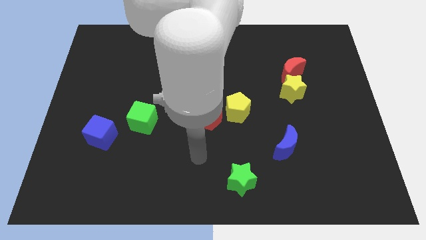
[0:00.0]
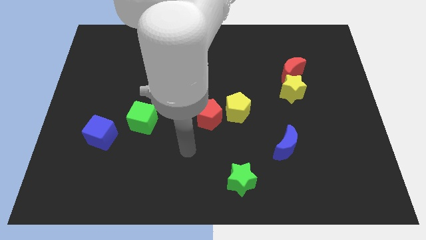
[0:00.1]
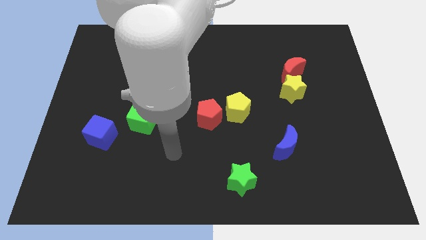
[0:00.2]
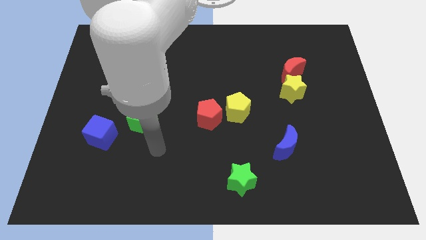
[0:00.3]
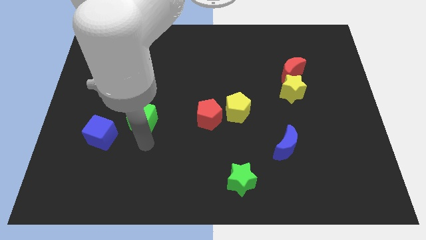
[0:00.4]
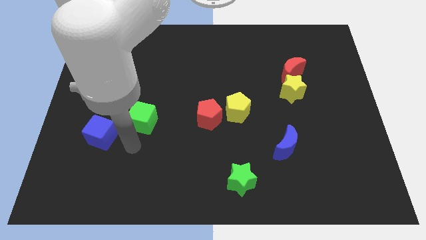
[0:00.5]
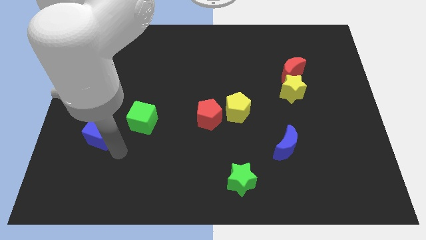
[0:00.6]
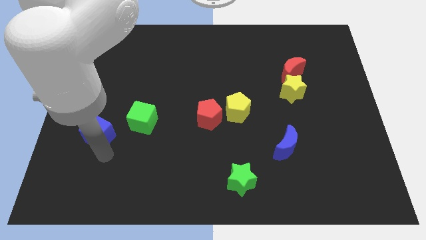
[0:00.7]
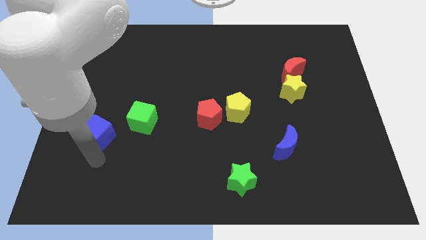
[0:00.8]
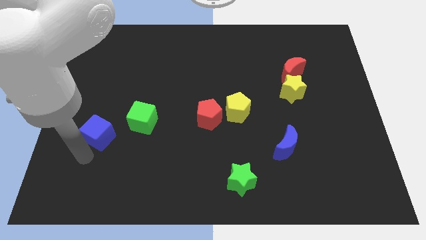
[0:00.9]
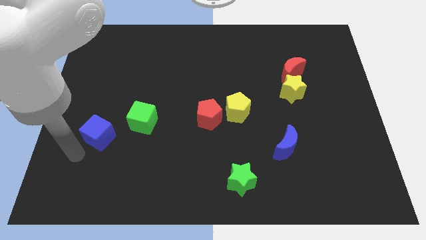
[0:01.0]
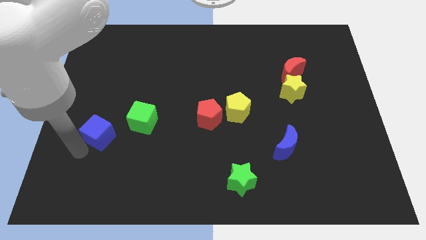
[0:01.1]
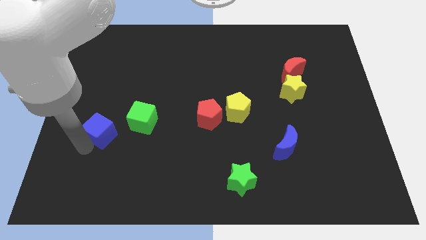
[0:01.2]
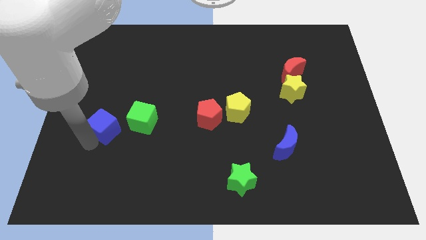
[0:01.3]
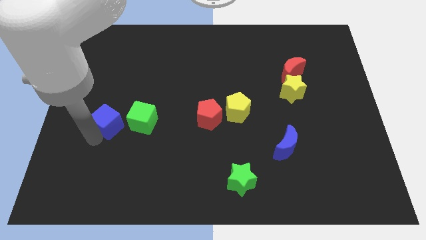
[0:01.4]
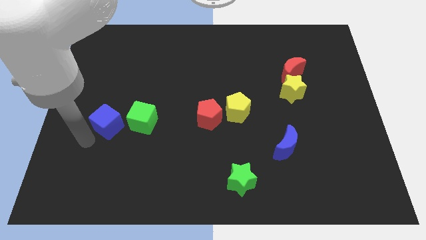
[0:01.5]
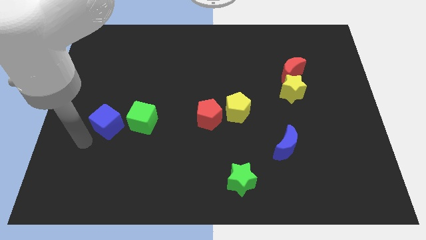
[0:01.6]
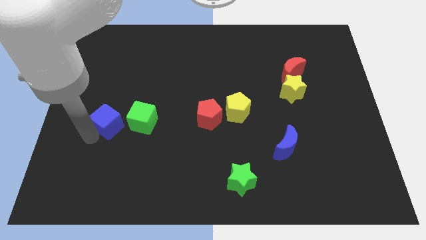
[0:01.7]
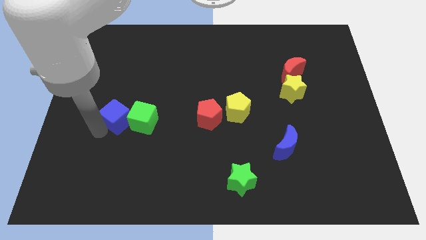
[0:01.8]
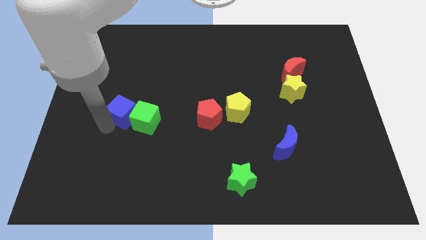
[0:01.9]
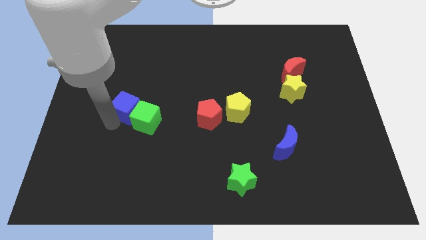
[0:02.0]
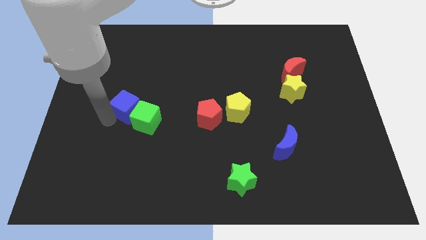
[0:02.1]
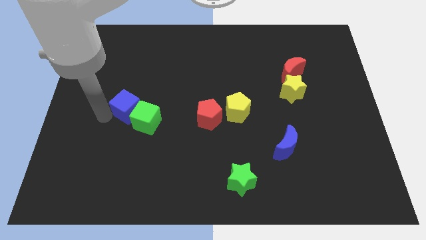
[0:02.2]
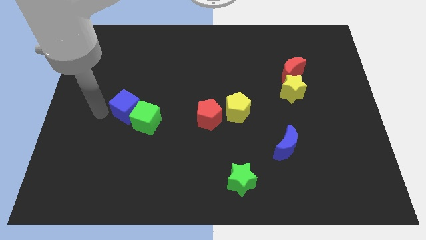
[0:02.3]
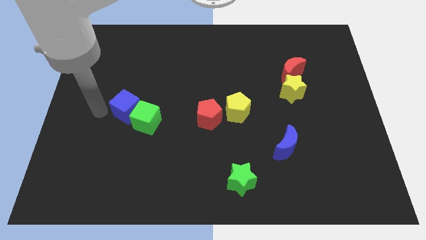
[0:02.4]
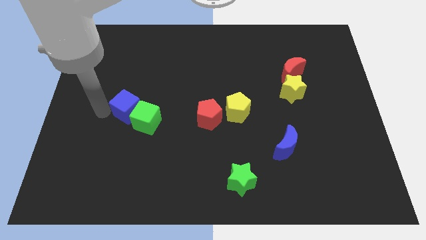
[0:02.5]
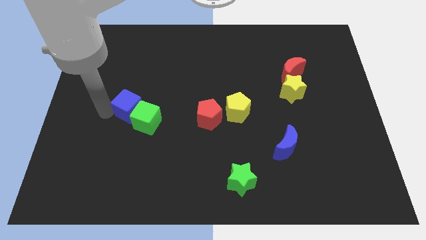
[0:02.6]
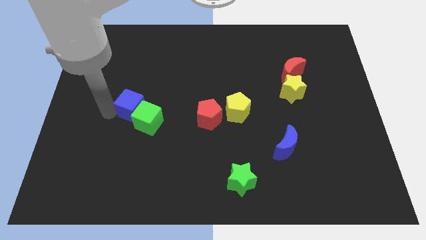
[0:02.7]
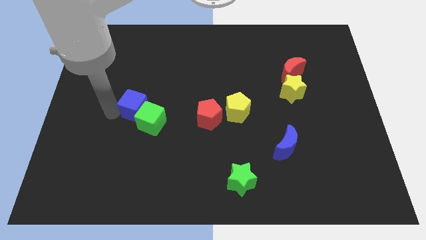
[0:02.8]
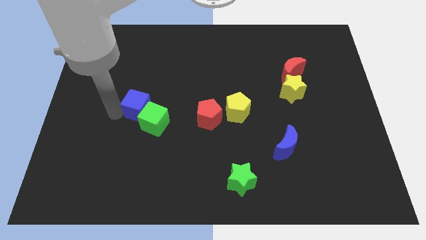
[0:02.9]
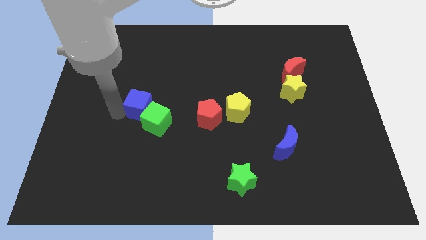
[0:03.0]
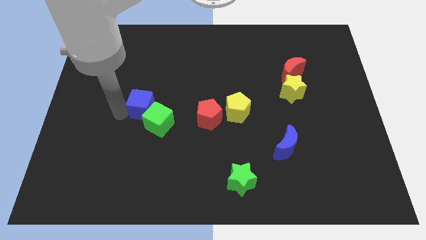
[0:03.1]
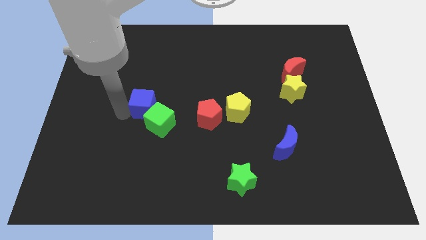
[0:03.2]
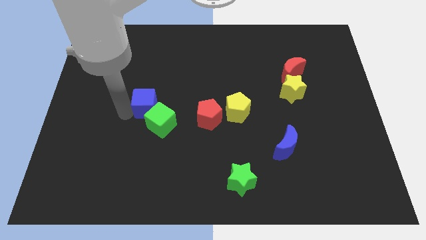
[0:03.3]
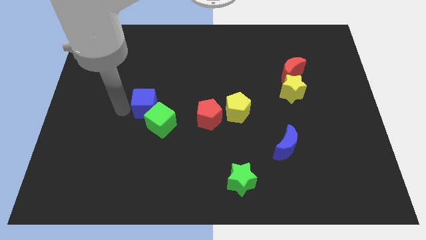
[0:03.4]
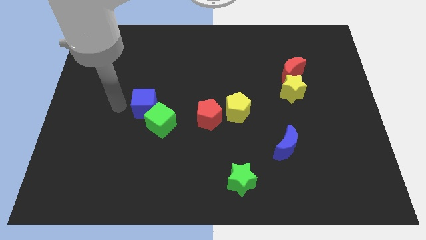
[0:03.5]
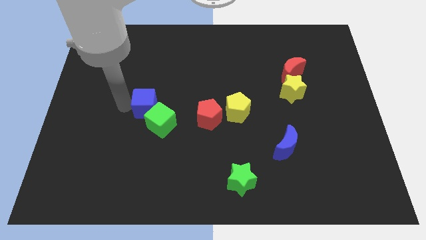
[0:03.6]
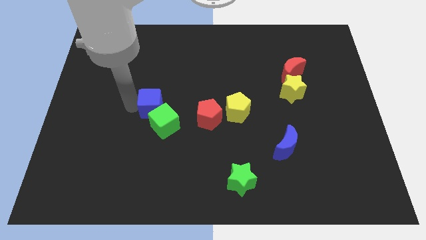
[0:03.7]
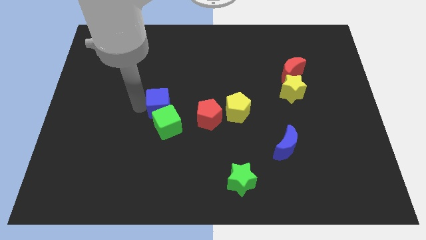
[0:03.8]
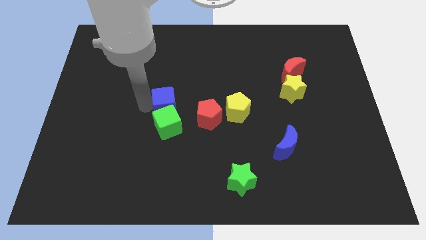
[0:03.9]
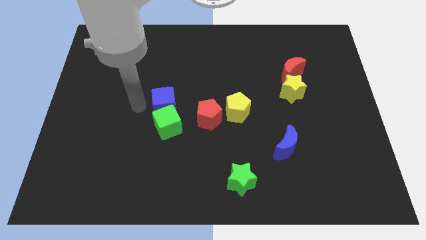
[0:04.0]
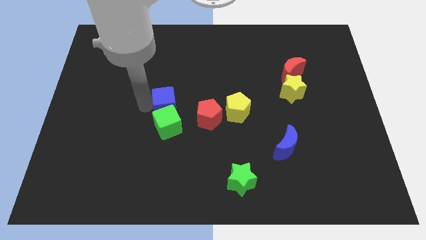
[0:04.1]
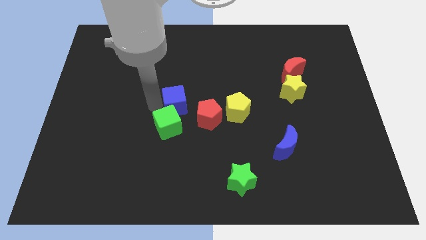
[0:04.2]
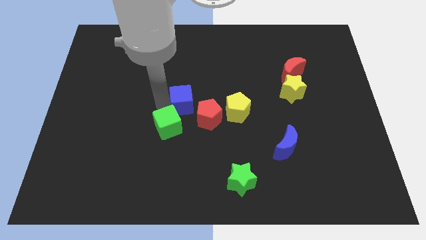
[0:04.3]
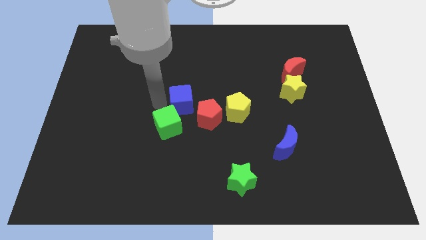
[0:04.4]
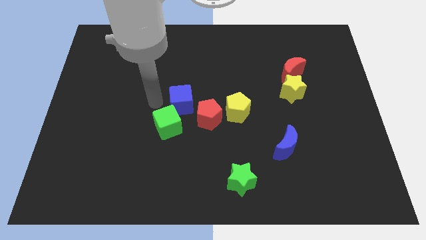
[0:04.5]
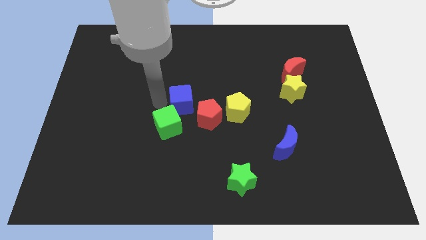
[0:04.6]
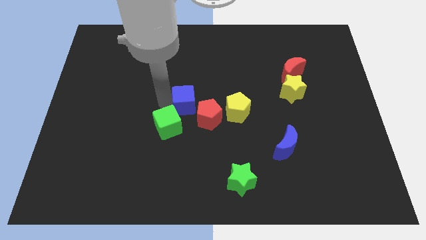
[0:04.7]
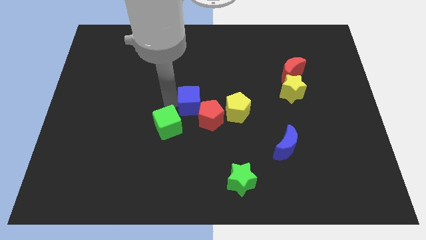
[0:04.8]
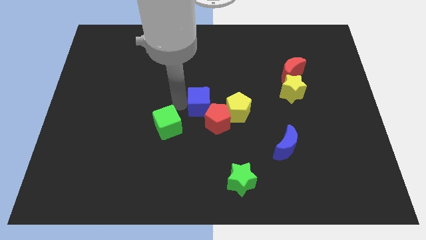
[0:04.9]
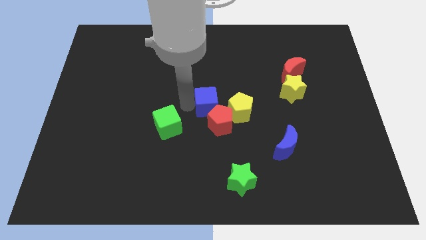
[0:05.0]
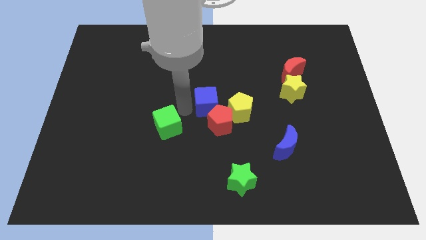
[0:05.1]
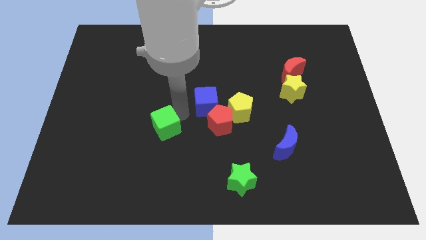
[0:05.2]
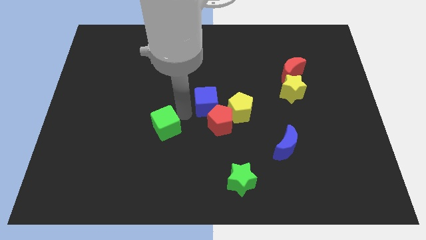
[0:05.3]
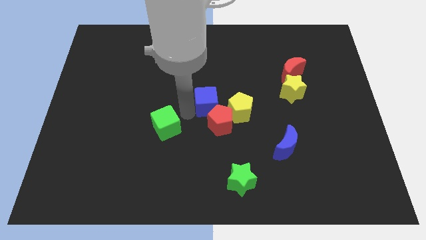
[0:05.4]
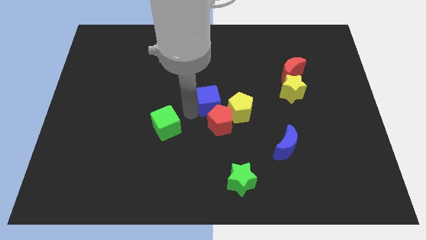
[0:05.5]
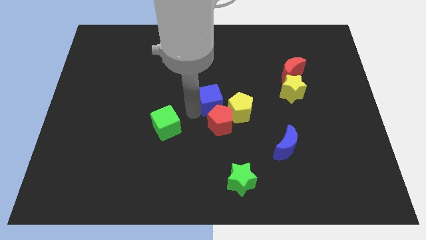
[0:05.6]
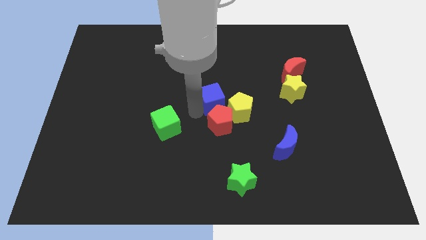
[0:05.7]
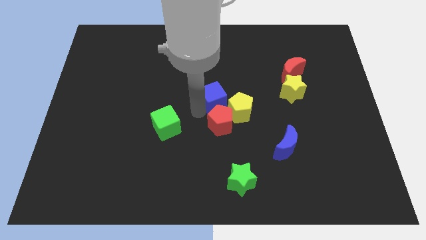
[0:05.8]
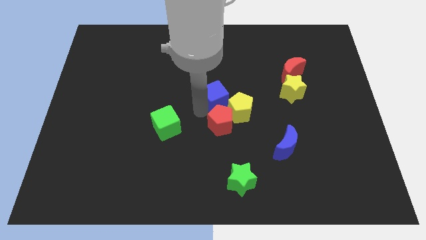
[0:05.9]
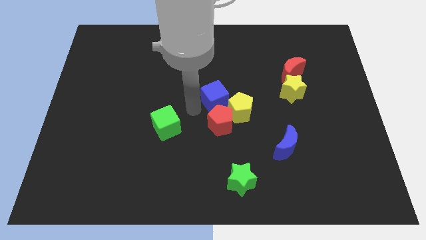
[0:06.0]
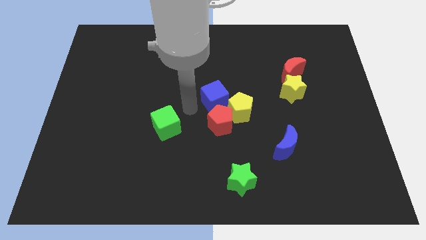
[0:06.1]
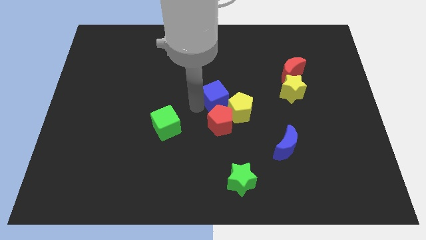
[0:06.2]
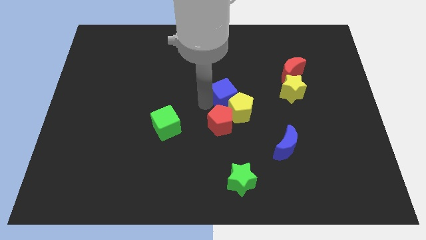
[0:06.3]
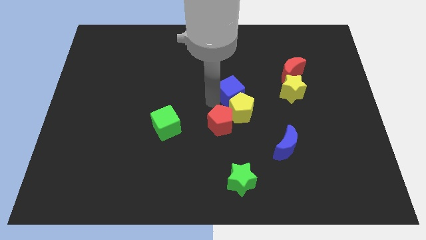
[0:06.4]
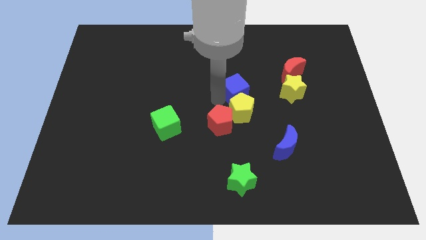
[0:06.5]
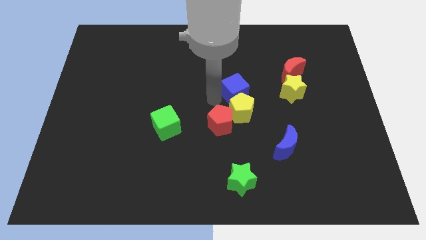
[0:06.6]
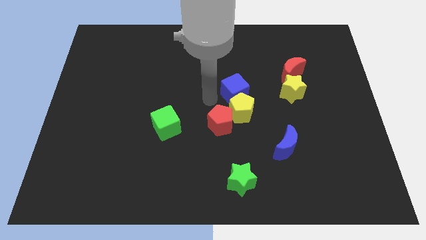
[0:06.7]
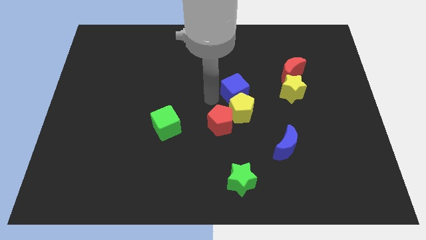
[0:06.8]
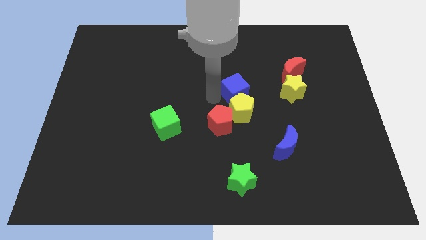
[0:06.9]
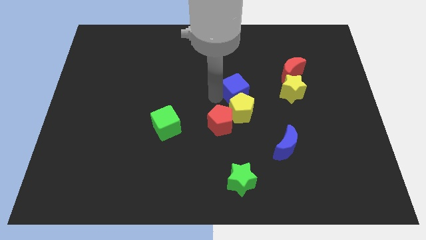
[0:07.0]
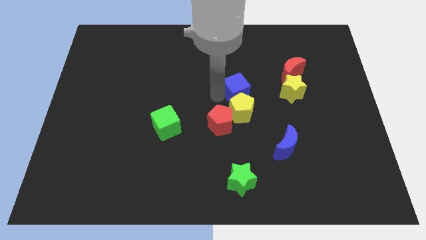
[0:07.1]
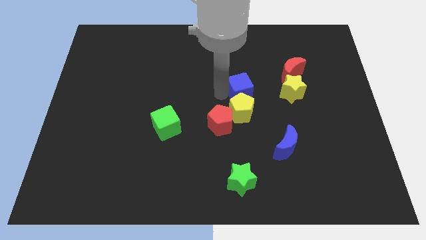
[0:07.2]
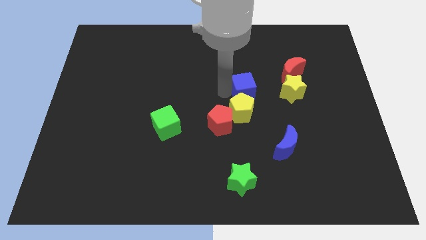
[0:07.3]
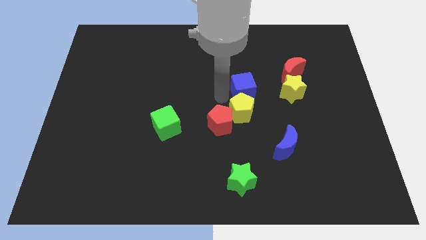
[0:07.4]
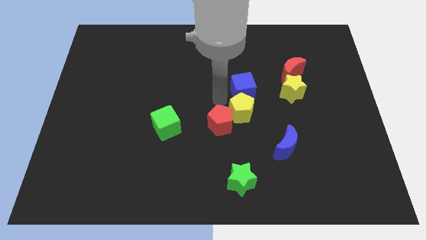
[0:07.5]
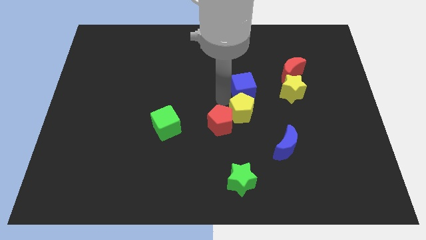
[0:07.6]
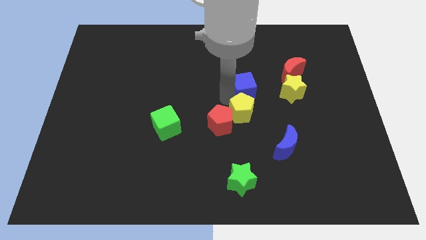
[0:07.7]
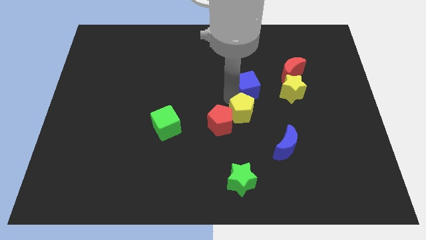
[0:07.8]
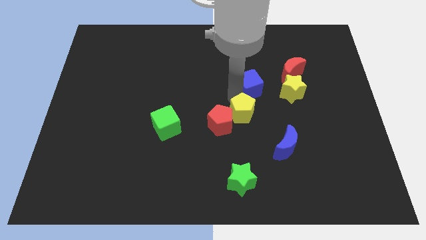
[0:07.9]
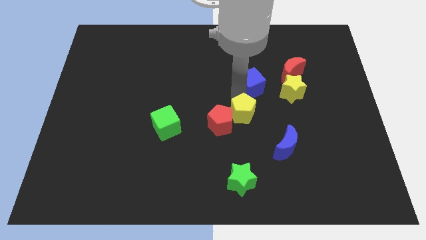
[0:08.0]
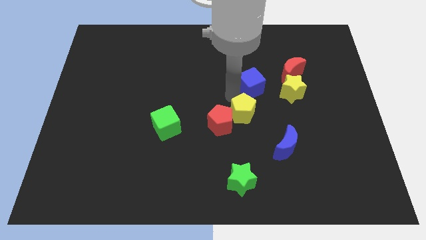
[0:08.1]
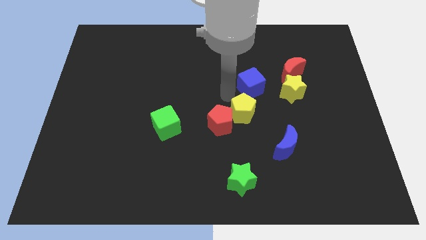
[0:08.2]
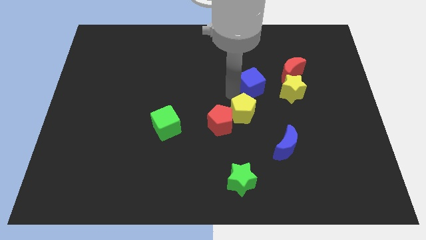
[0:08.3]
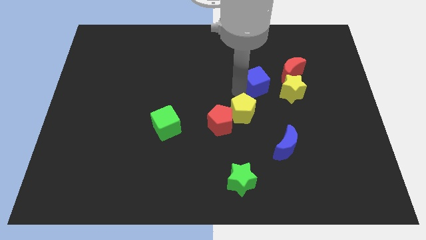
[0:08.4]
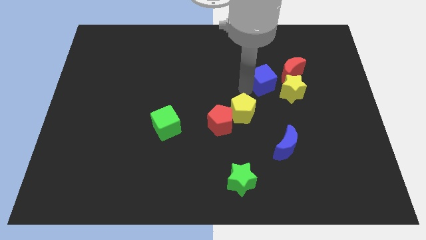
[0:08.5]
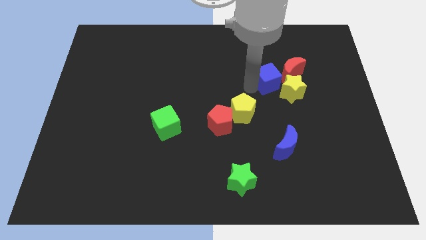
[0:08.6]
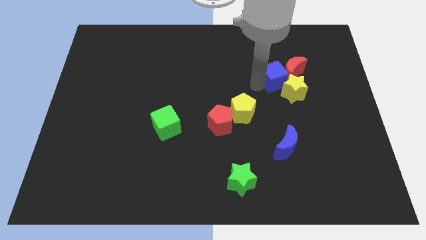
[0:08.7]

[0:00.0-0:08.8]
move the blue cube next to the red moon
